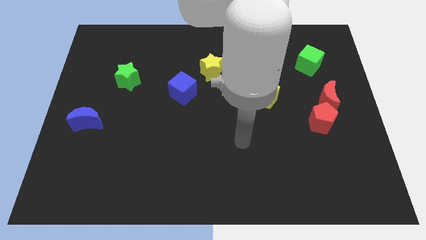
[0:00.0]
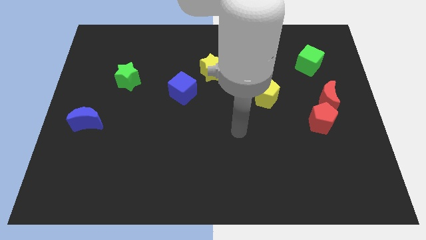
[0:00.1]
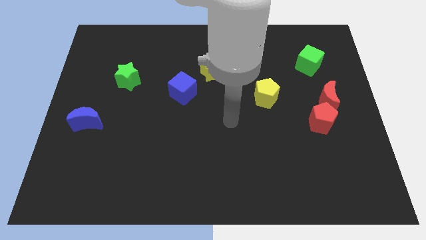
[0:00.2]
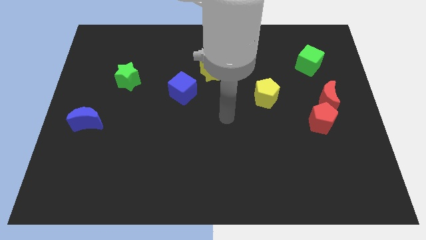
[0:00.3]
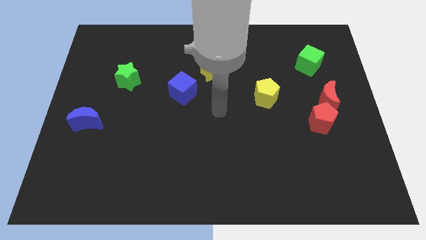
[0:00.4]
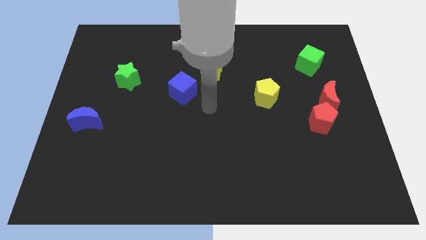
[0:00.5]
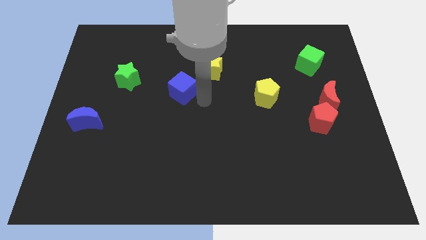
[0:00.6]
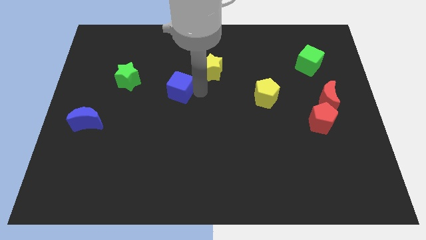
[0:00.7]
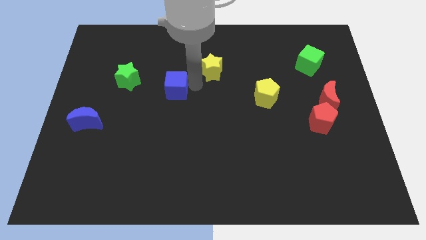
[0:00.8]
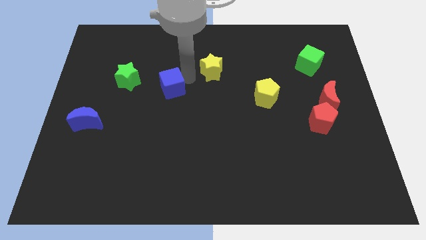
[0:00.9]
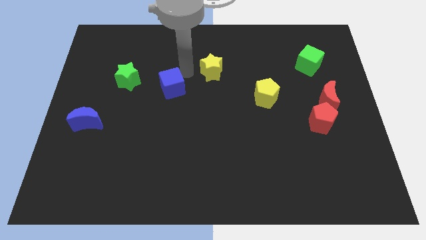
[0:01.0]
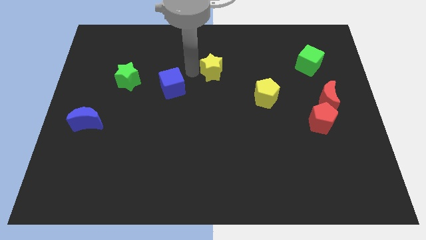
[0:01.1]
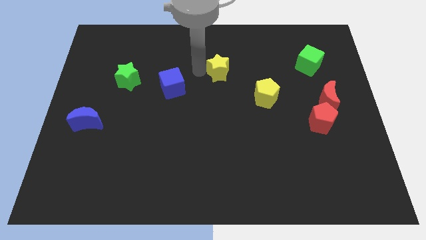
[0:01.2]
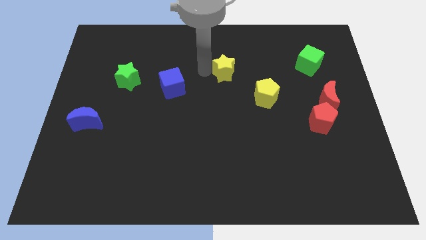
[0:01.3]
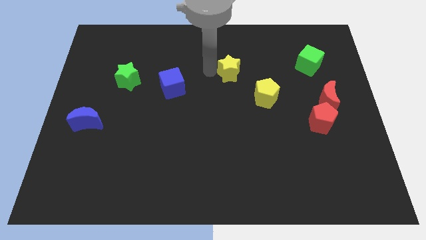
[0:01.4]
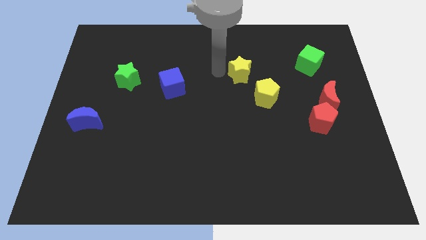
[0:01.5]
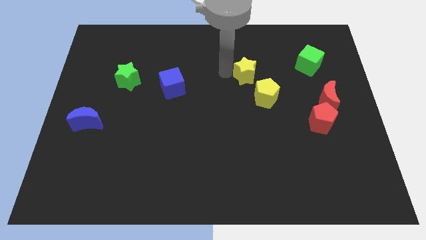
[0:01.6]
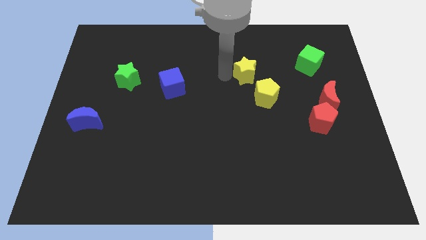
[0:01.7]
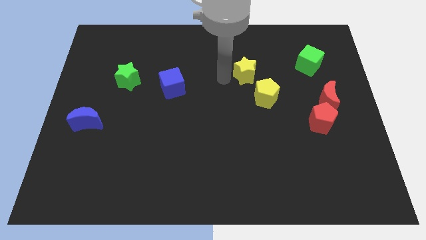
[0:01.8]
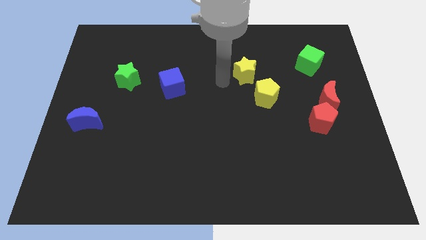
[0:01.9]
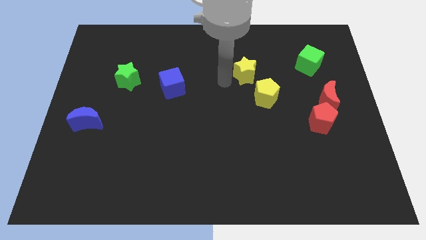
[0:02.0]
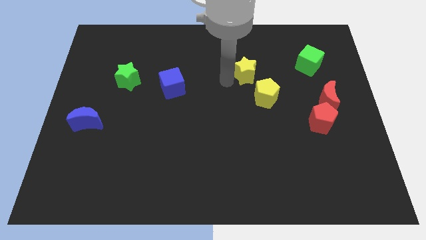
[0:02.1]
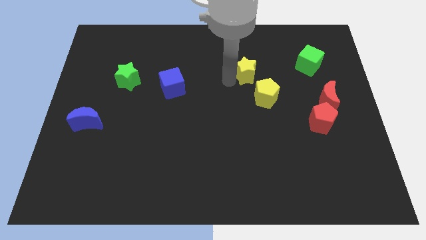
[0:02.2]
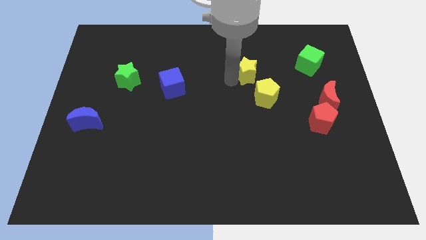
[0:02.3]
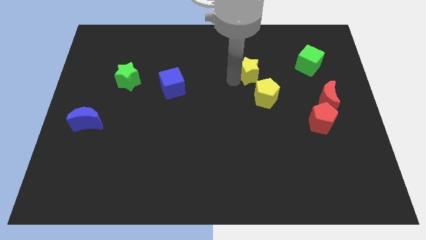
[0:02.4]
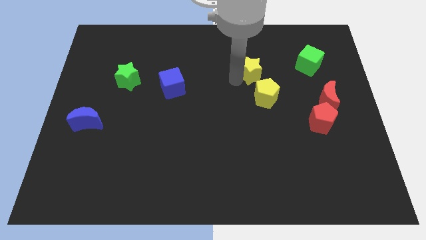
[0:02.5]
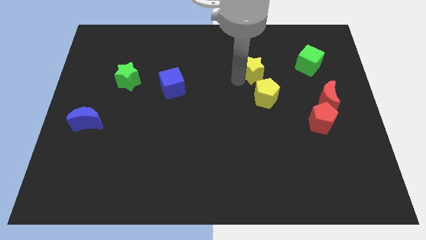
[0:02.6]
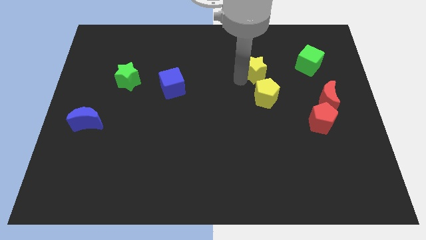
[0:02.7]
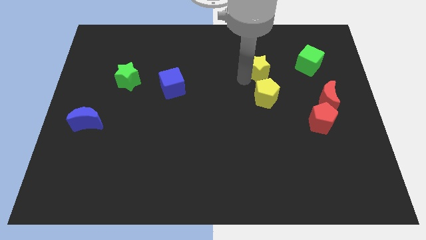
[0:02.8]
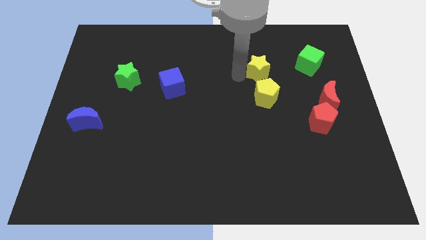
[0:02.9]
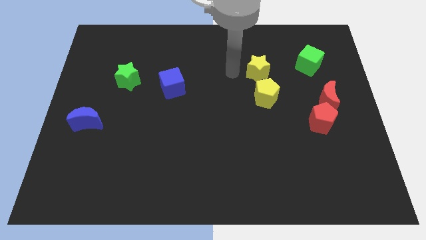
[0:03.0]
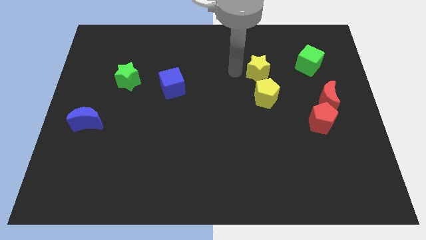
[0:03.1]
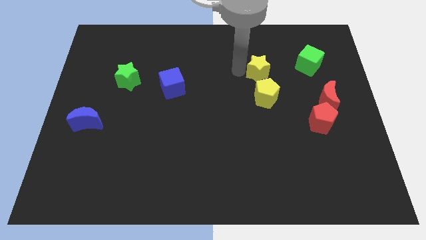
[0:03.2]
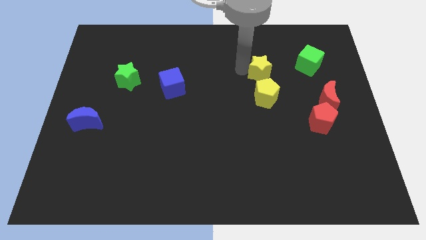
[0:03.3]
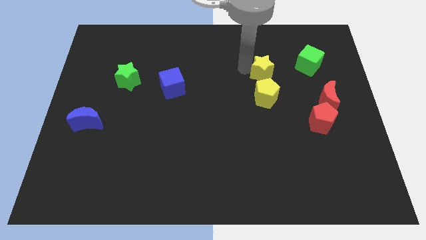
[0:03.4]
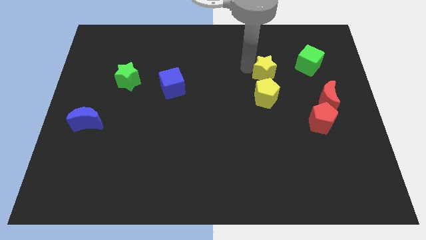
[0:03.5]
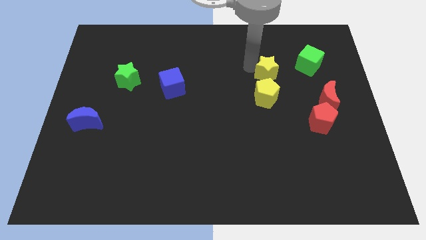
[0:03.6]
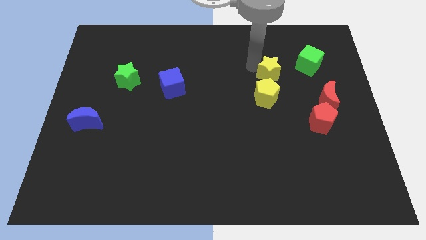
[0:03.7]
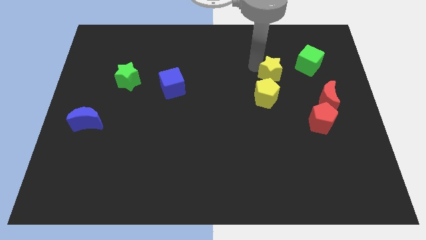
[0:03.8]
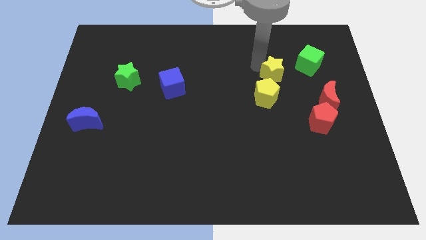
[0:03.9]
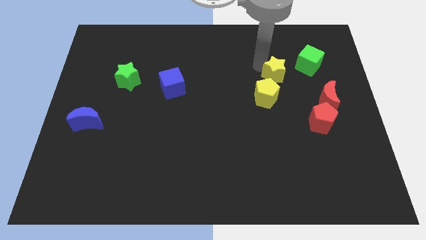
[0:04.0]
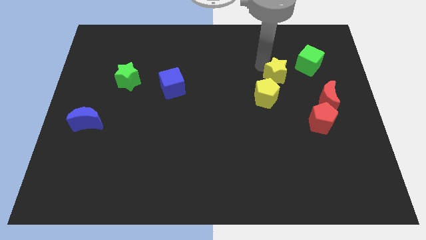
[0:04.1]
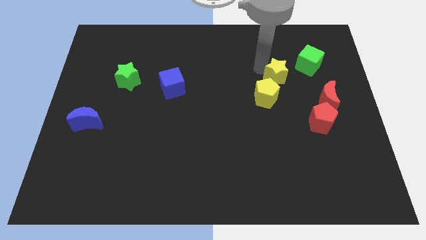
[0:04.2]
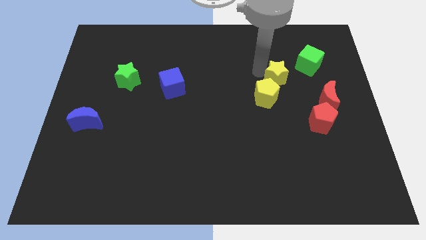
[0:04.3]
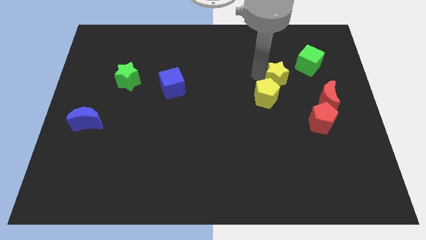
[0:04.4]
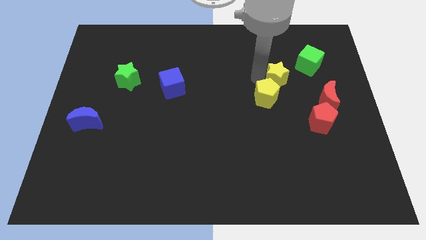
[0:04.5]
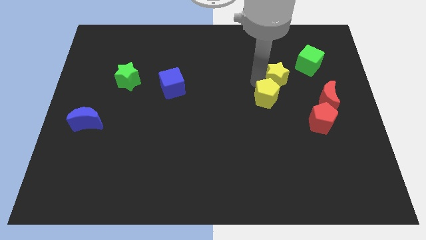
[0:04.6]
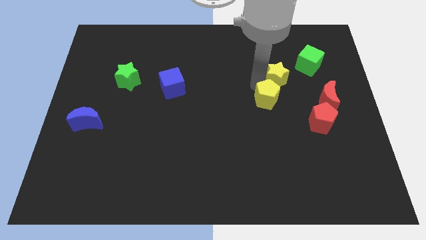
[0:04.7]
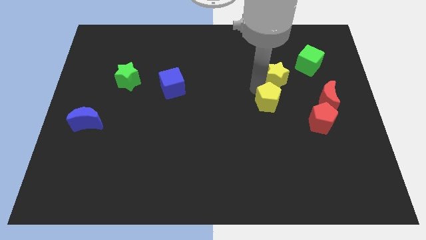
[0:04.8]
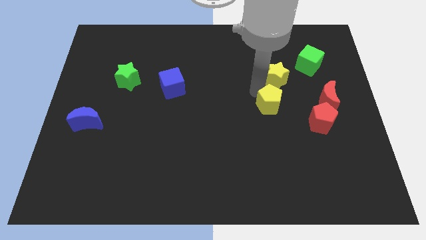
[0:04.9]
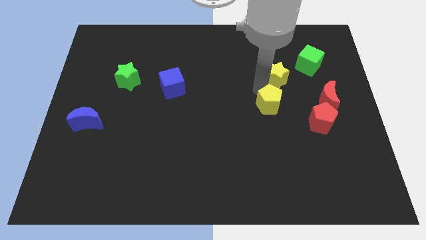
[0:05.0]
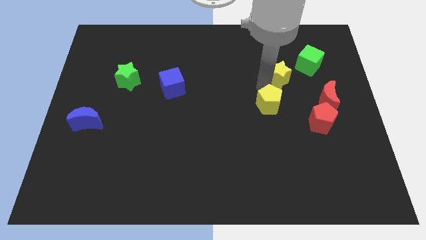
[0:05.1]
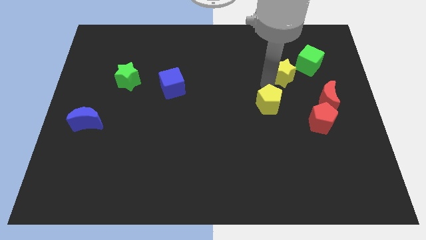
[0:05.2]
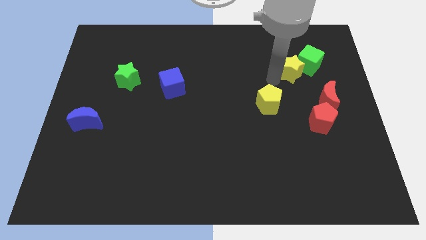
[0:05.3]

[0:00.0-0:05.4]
slide the yellow star next to the green cube

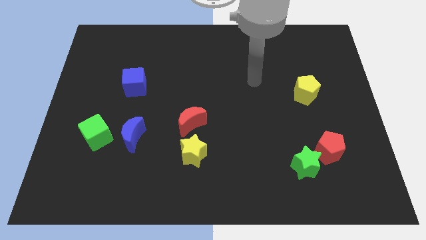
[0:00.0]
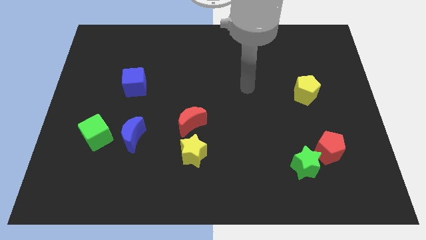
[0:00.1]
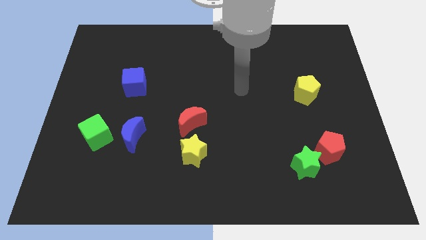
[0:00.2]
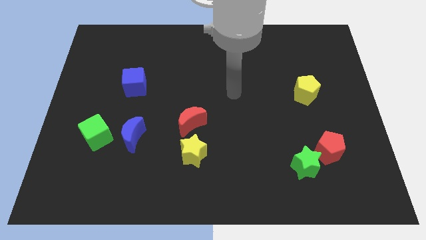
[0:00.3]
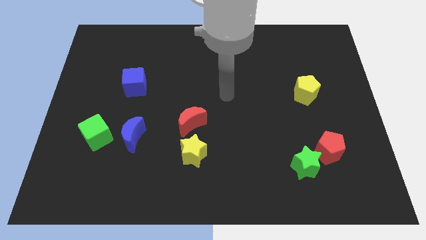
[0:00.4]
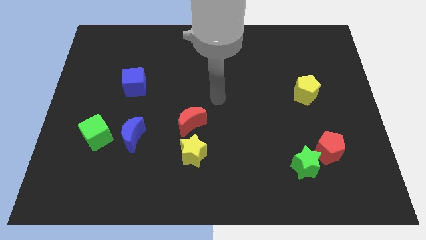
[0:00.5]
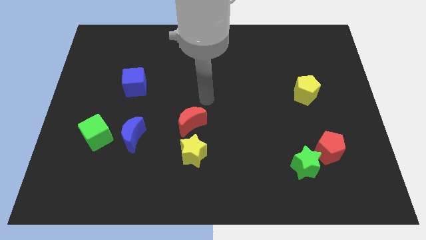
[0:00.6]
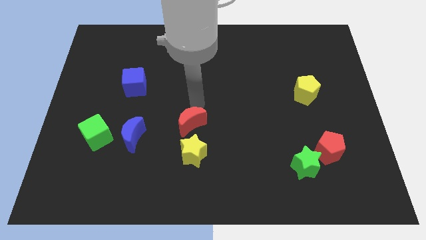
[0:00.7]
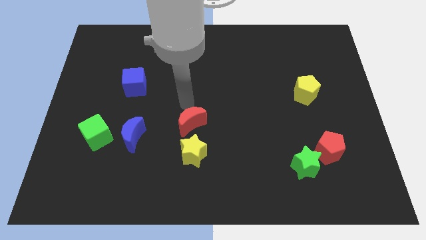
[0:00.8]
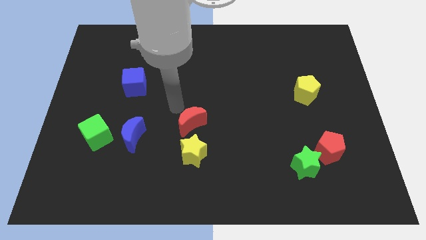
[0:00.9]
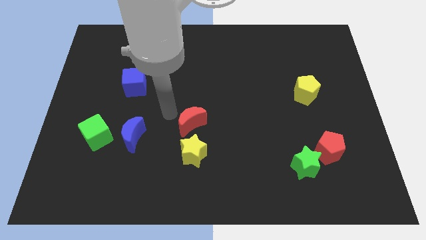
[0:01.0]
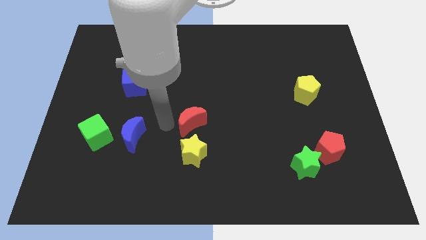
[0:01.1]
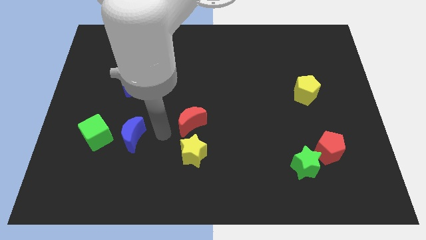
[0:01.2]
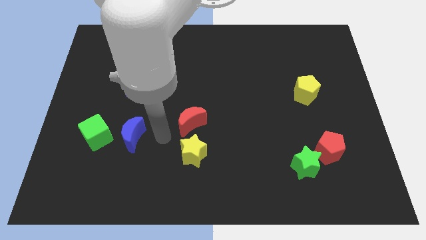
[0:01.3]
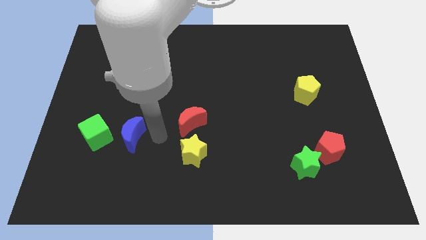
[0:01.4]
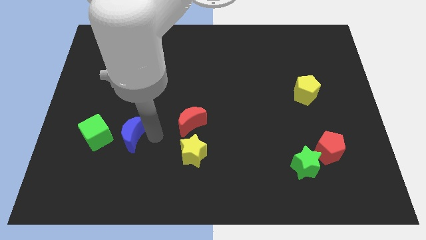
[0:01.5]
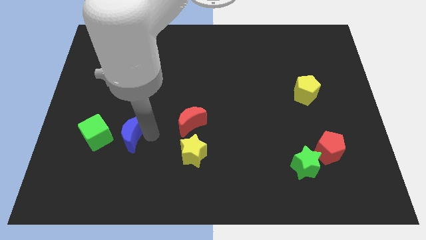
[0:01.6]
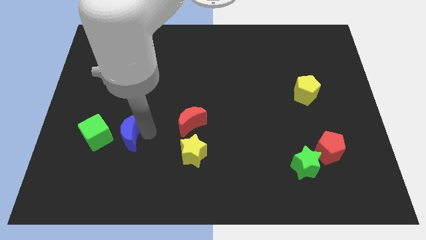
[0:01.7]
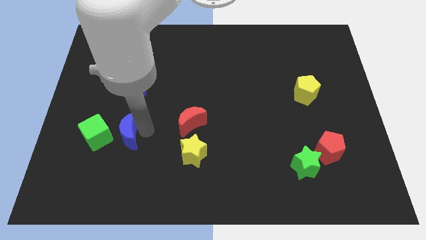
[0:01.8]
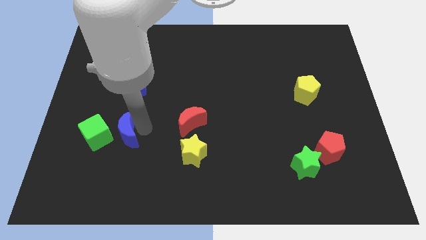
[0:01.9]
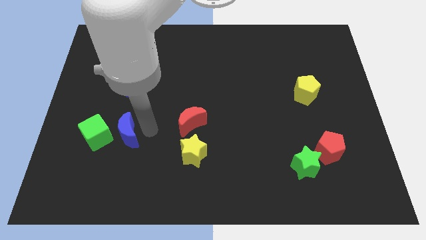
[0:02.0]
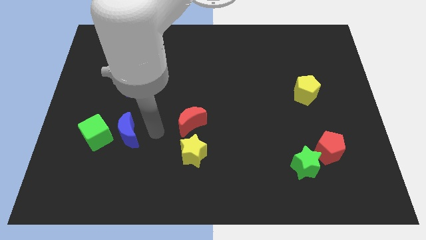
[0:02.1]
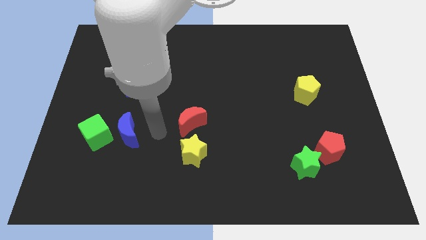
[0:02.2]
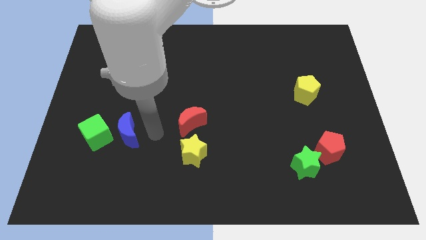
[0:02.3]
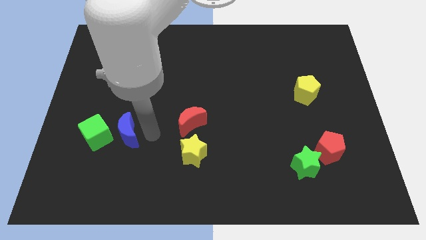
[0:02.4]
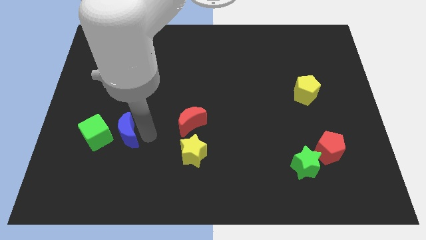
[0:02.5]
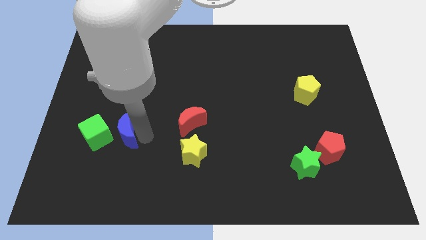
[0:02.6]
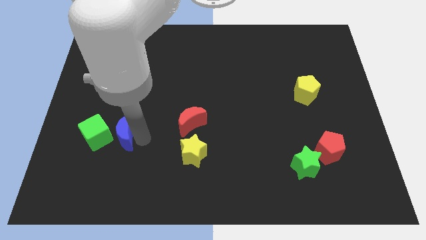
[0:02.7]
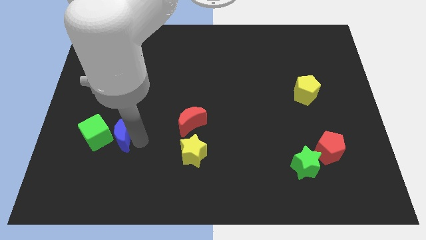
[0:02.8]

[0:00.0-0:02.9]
push the blue moon towards the green cube
